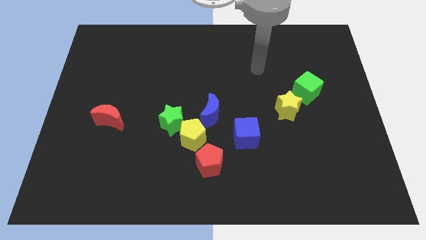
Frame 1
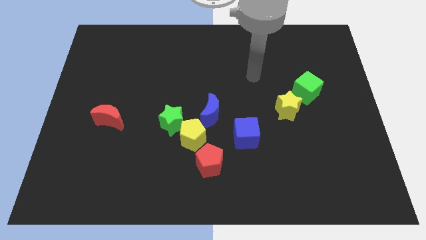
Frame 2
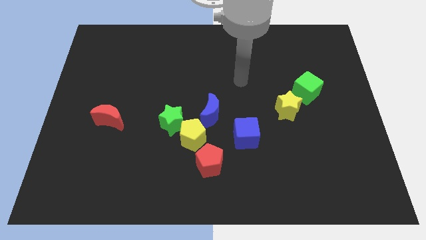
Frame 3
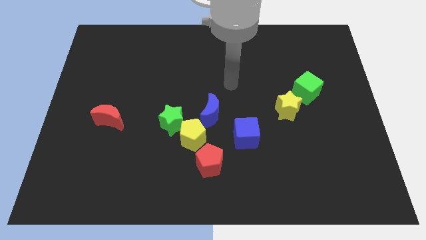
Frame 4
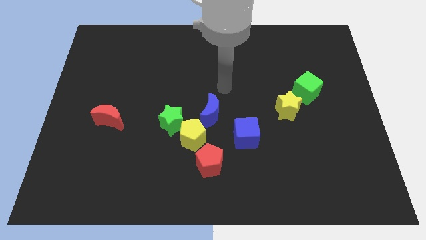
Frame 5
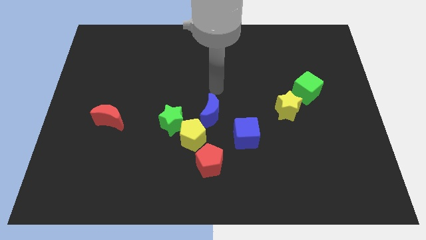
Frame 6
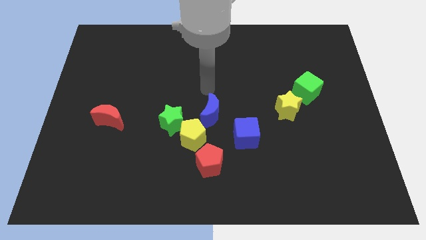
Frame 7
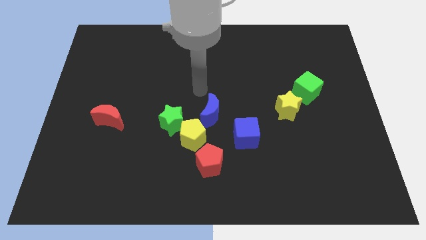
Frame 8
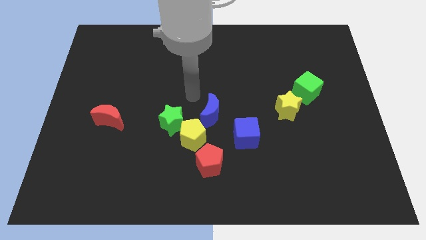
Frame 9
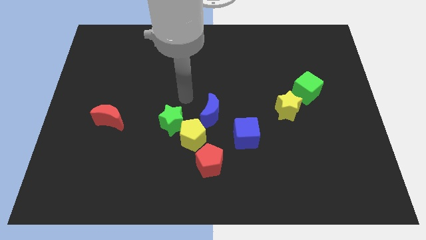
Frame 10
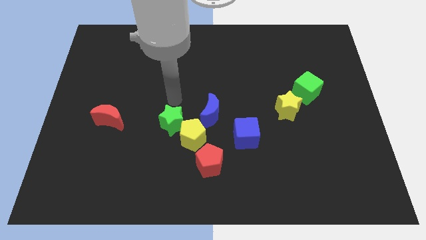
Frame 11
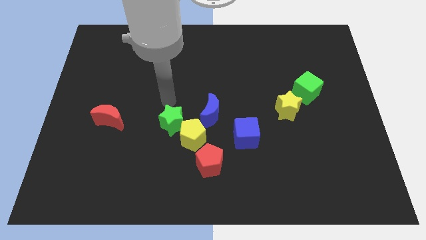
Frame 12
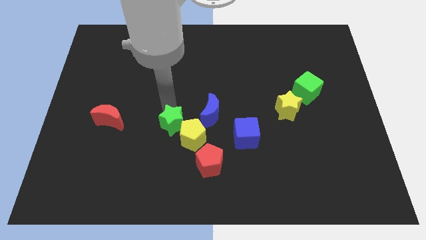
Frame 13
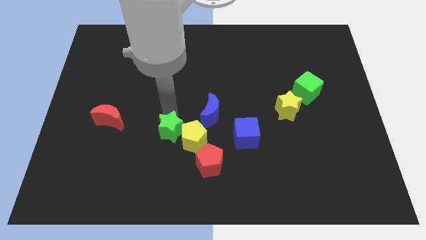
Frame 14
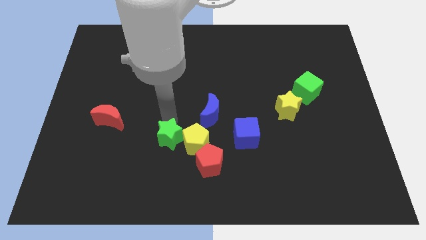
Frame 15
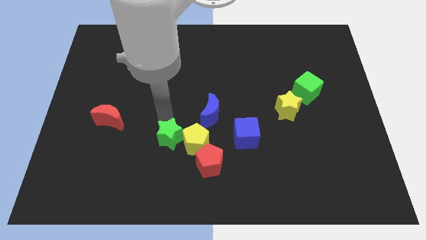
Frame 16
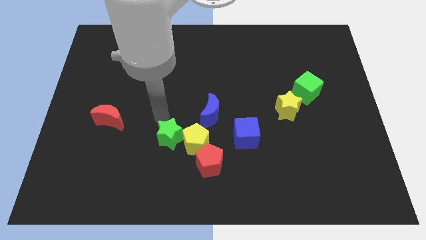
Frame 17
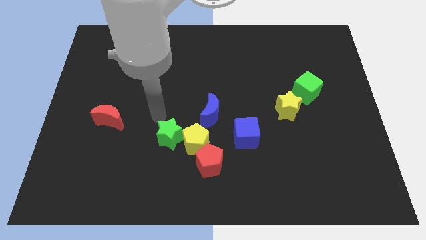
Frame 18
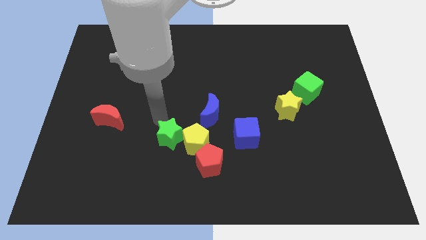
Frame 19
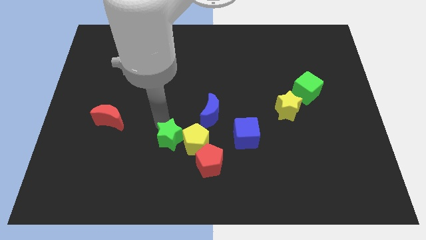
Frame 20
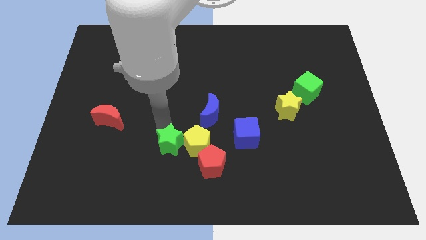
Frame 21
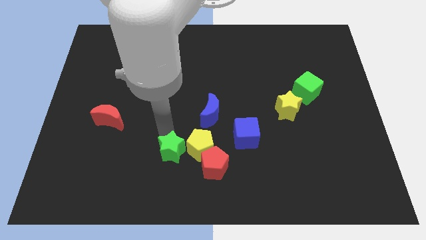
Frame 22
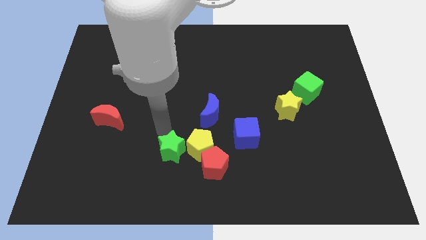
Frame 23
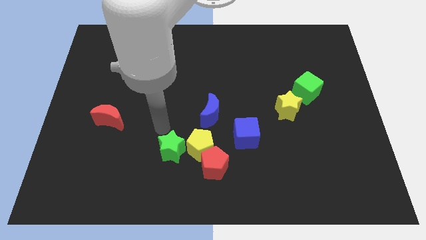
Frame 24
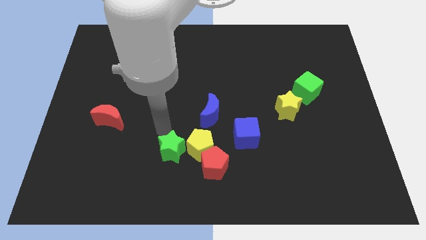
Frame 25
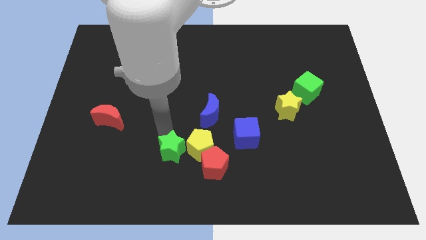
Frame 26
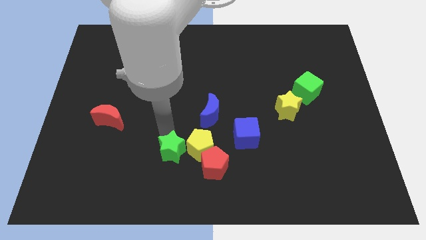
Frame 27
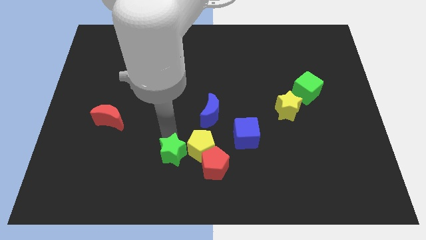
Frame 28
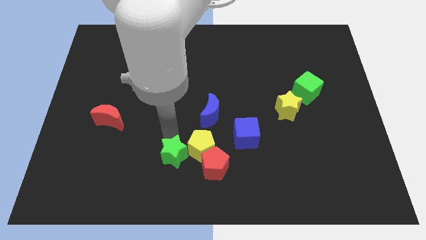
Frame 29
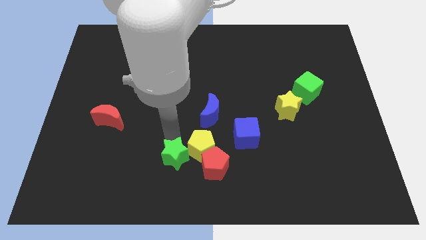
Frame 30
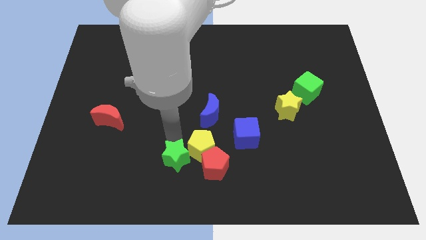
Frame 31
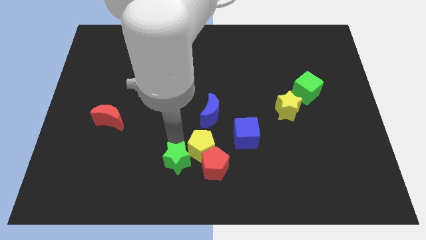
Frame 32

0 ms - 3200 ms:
move the green star somewhat downwards and then right

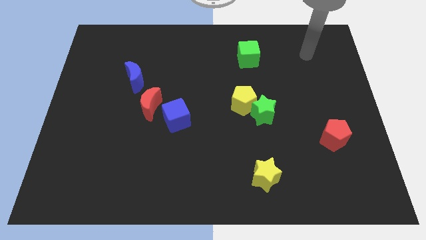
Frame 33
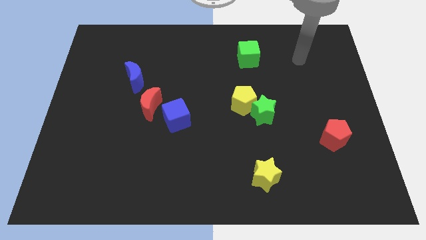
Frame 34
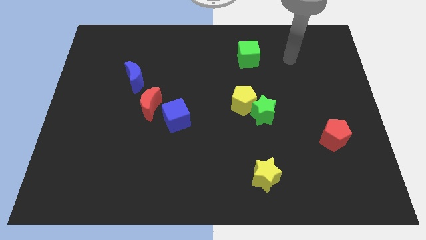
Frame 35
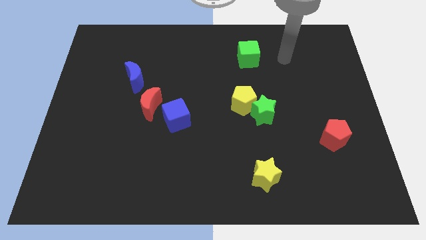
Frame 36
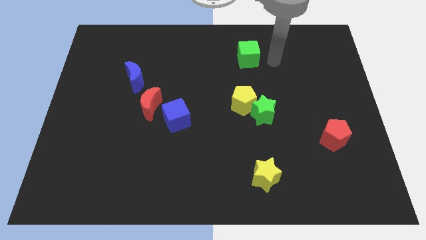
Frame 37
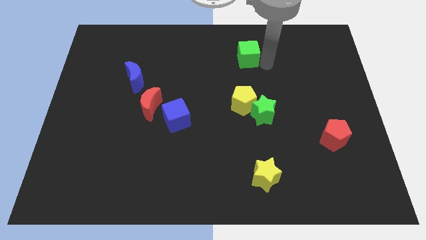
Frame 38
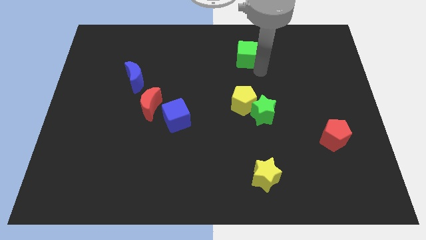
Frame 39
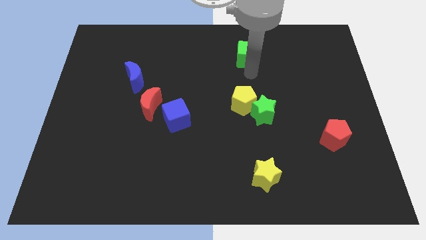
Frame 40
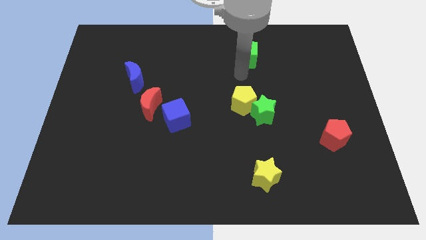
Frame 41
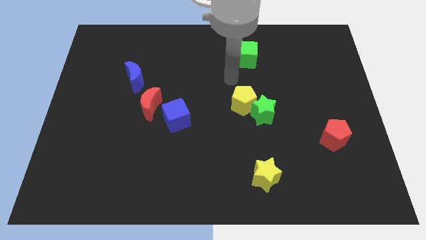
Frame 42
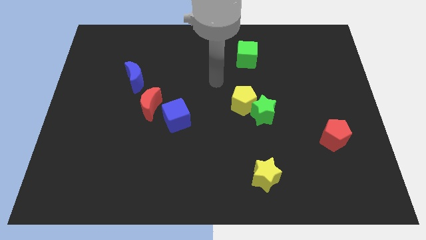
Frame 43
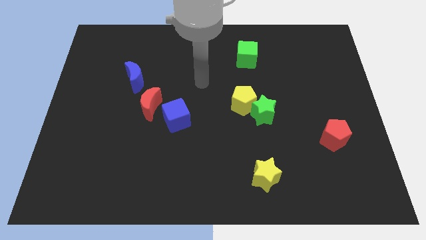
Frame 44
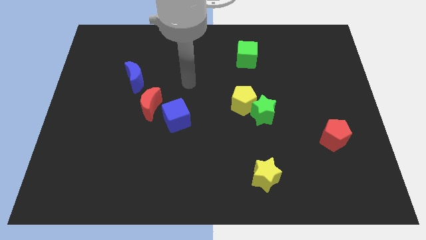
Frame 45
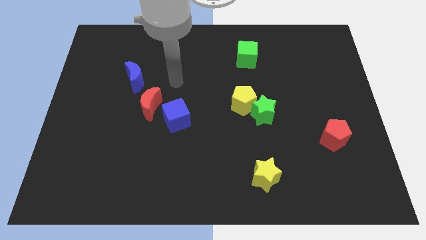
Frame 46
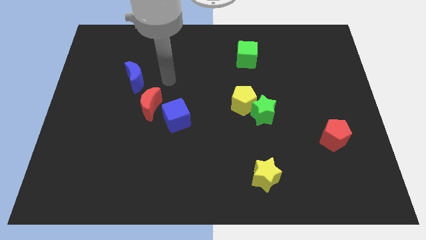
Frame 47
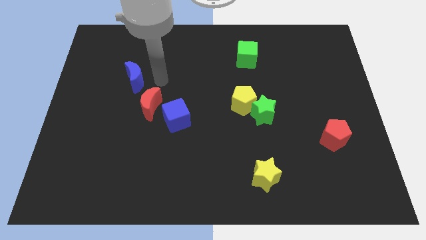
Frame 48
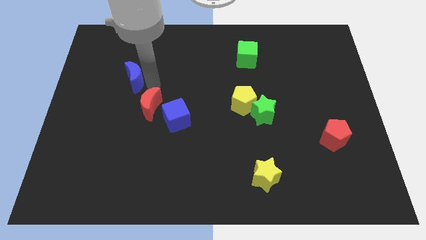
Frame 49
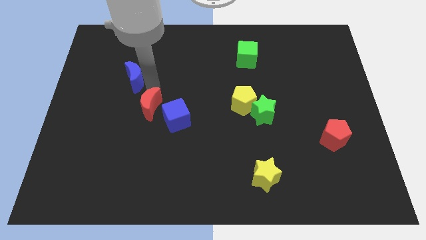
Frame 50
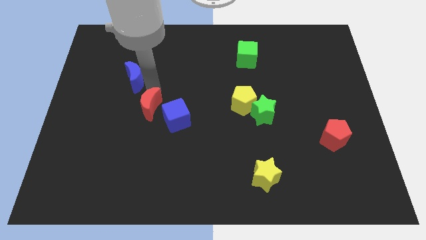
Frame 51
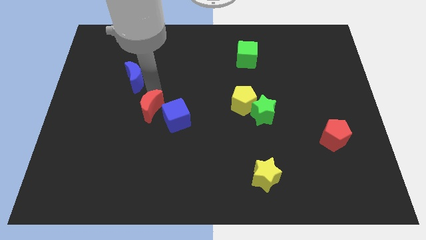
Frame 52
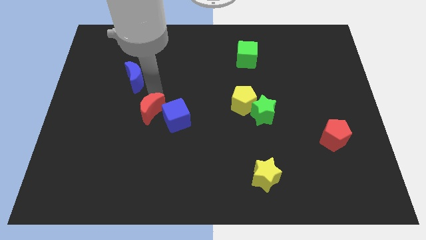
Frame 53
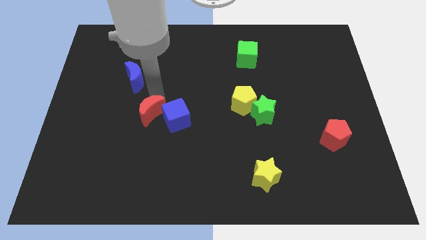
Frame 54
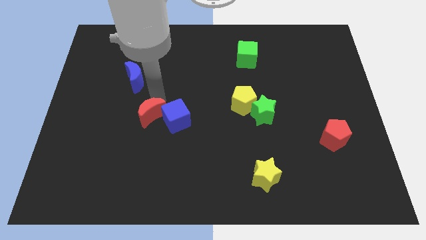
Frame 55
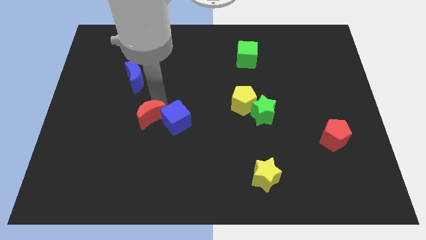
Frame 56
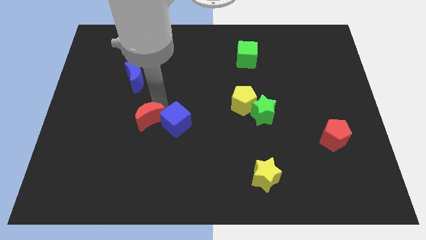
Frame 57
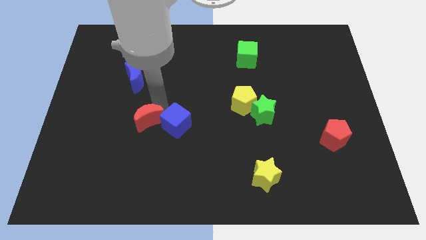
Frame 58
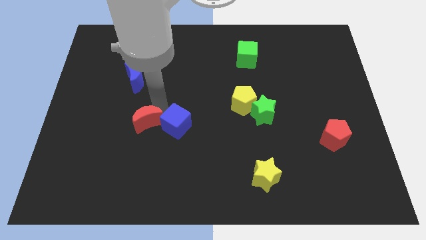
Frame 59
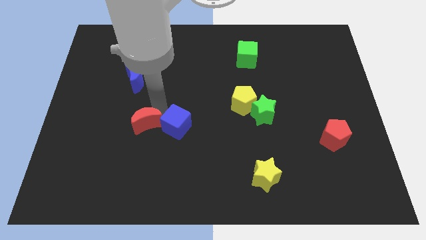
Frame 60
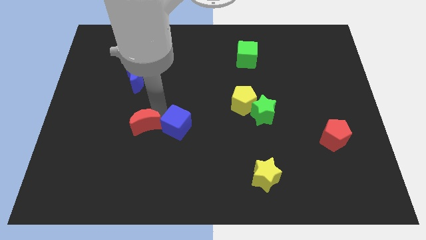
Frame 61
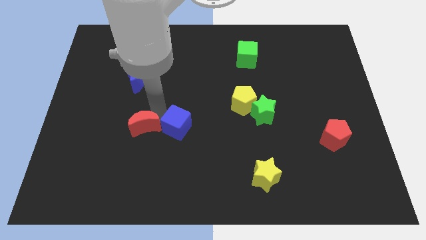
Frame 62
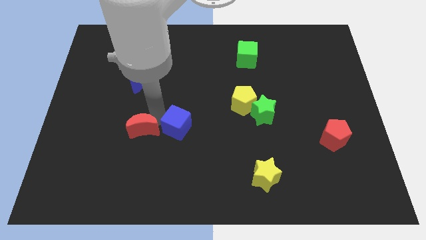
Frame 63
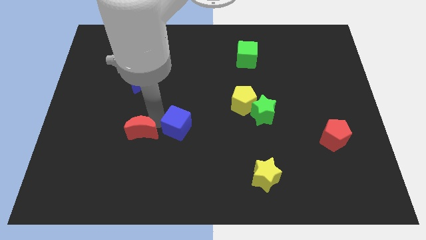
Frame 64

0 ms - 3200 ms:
push the red moon downwards slightly

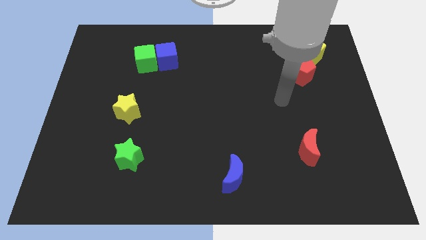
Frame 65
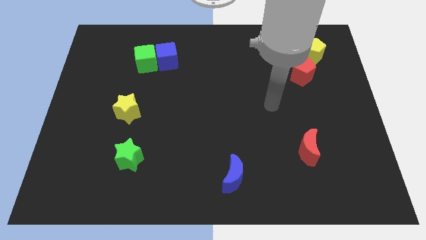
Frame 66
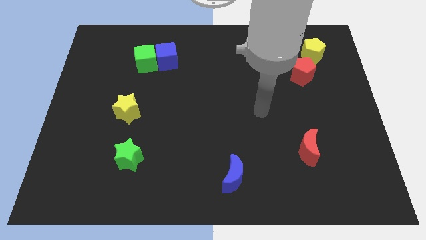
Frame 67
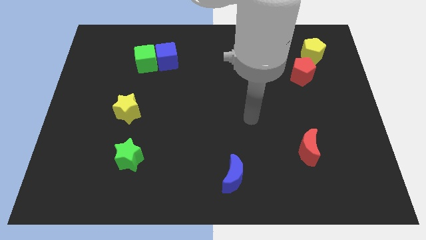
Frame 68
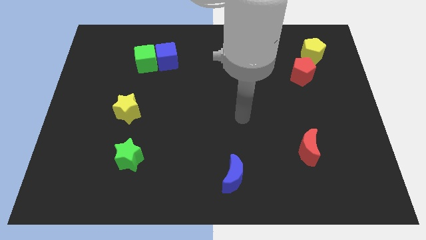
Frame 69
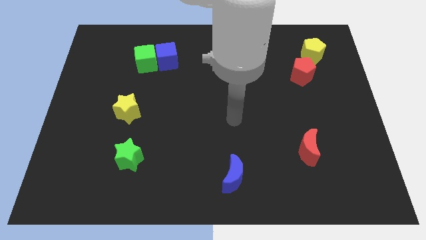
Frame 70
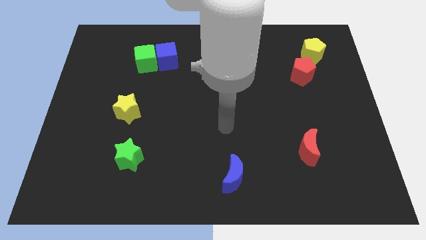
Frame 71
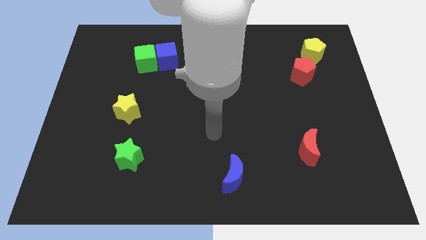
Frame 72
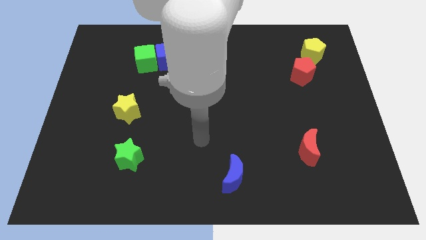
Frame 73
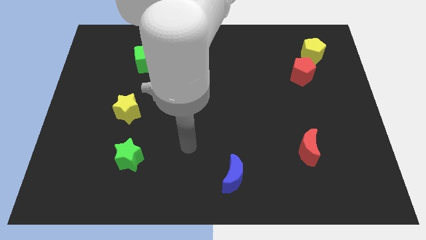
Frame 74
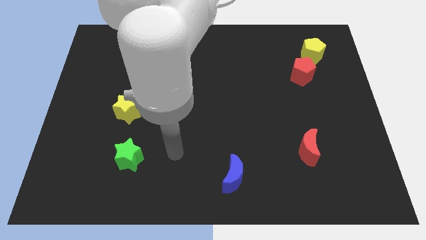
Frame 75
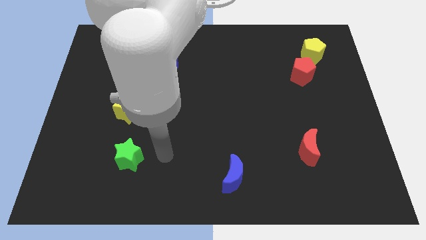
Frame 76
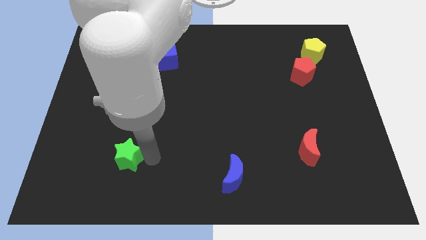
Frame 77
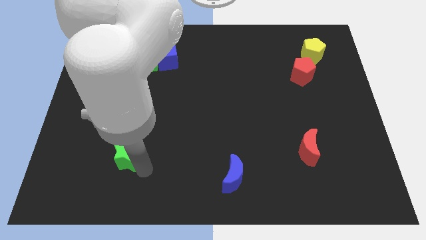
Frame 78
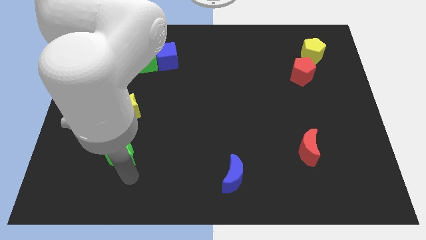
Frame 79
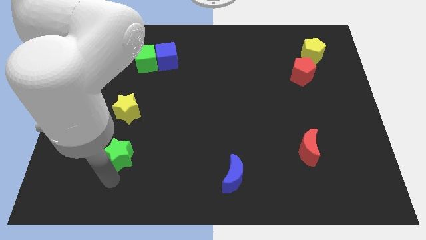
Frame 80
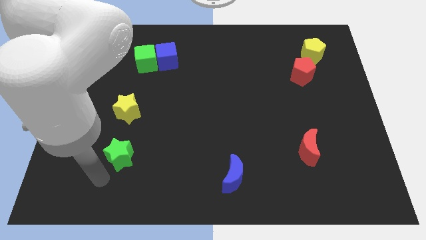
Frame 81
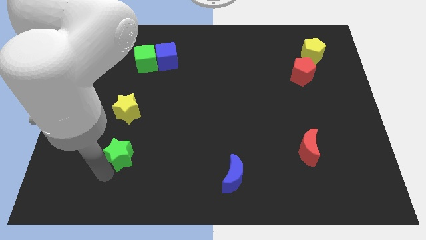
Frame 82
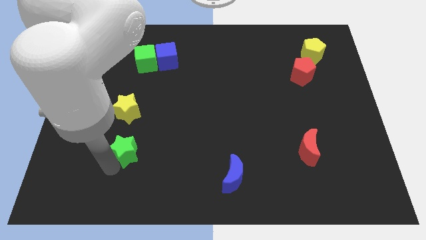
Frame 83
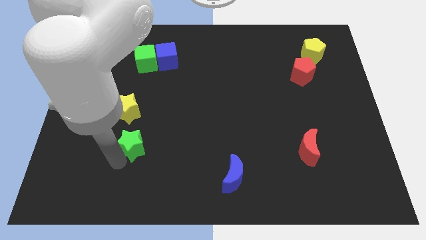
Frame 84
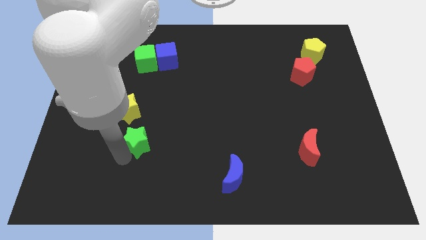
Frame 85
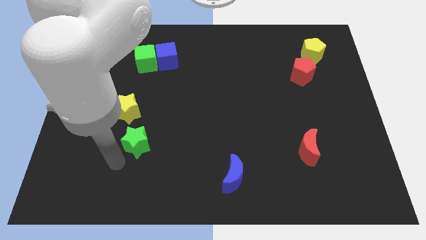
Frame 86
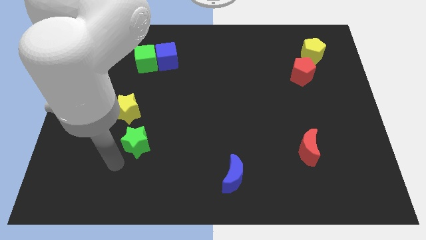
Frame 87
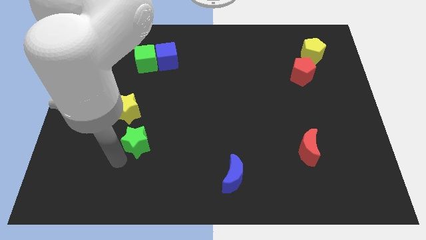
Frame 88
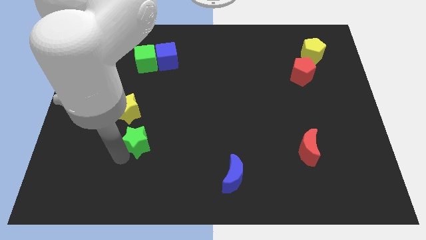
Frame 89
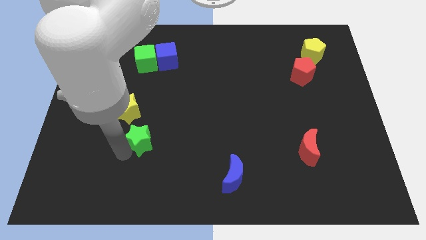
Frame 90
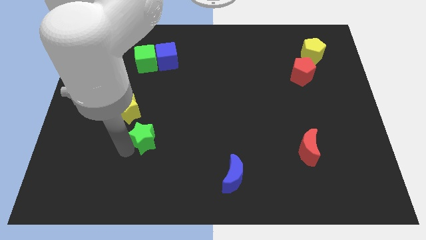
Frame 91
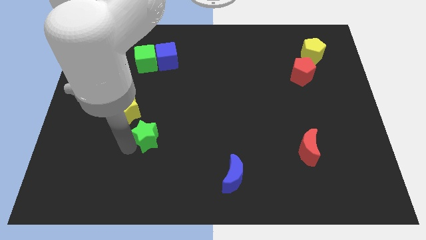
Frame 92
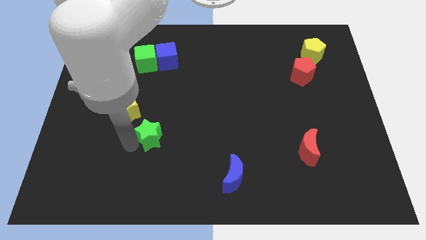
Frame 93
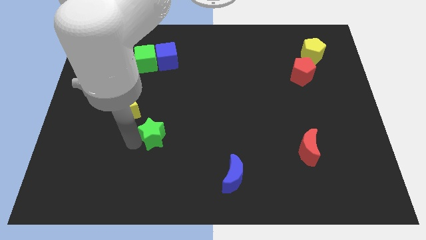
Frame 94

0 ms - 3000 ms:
slightly move the green star diagonally upwards and right
